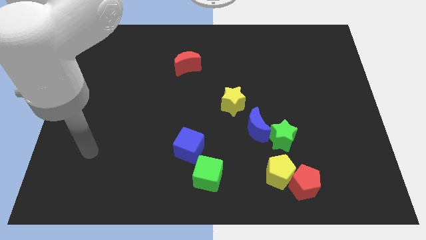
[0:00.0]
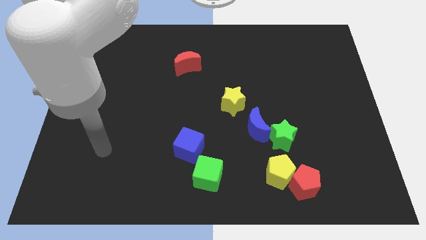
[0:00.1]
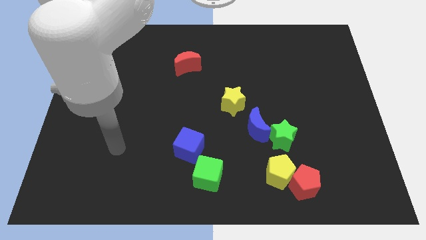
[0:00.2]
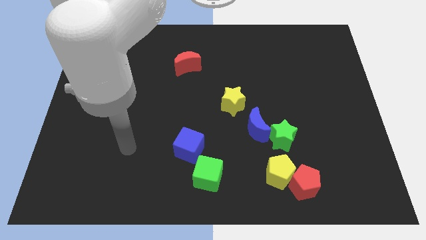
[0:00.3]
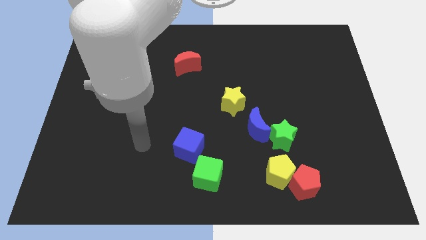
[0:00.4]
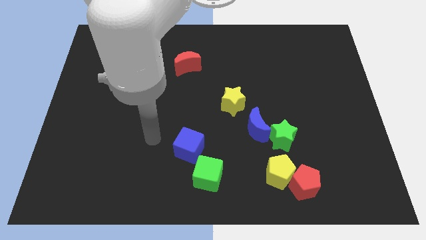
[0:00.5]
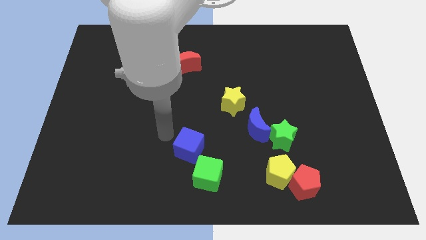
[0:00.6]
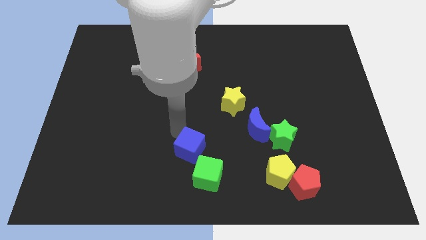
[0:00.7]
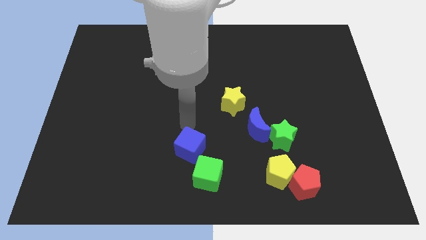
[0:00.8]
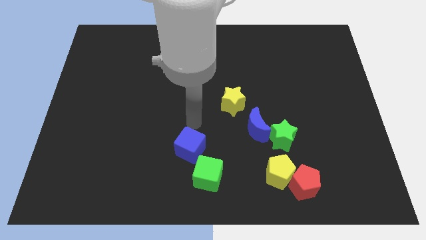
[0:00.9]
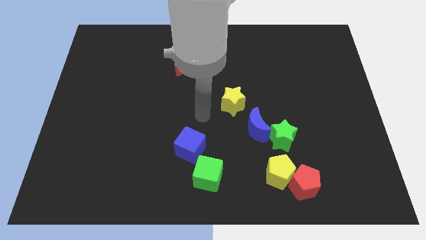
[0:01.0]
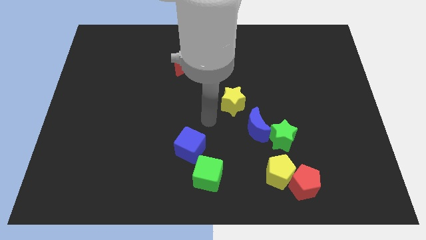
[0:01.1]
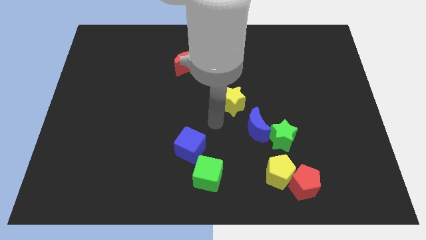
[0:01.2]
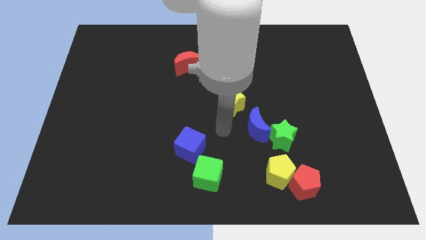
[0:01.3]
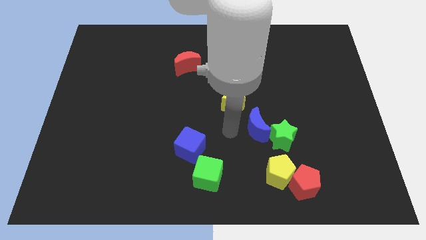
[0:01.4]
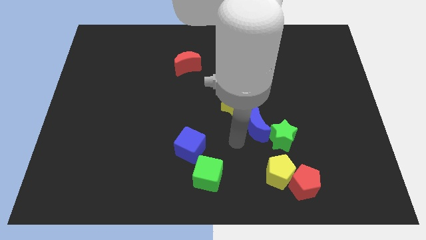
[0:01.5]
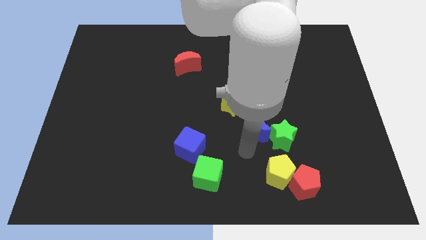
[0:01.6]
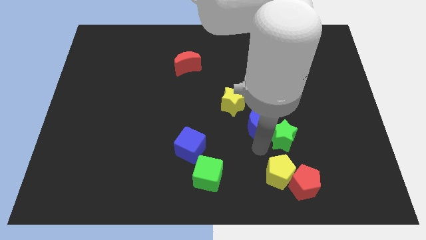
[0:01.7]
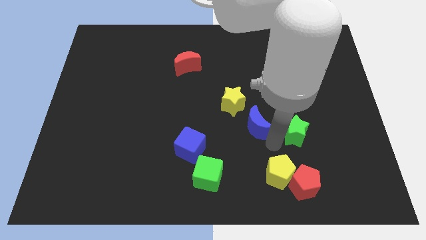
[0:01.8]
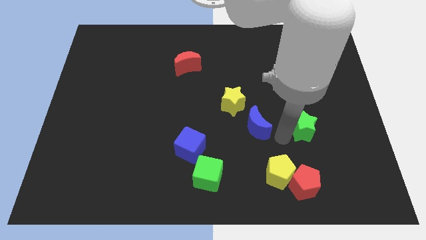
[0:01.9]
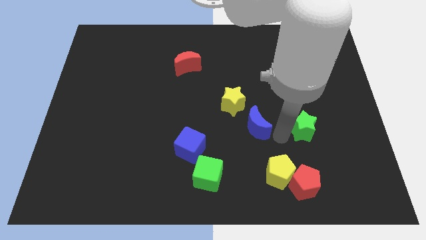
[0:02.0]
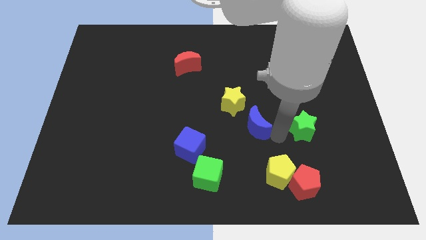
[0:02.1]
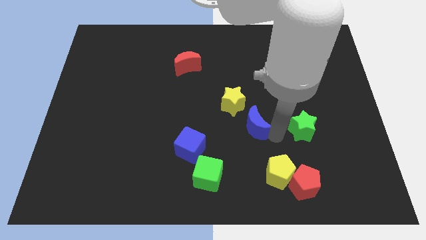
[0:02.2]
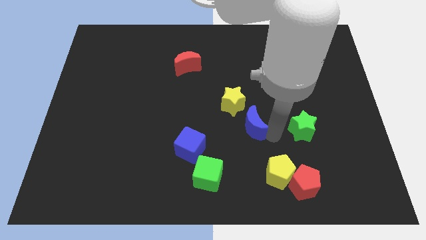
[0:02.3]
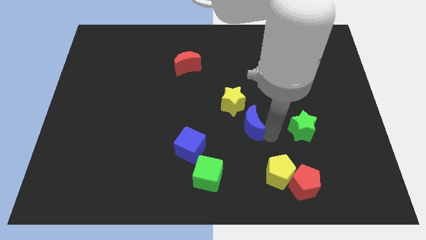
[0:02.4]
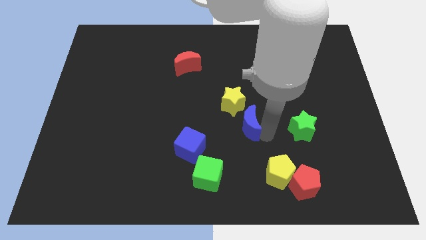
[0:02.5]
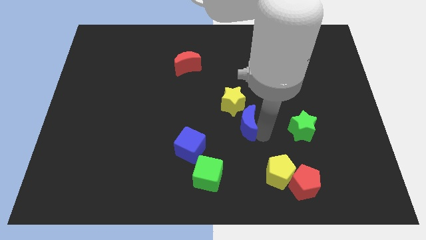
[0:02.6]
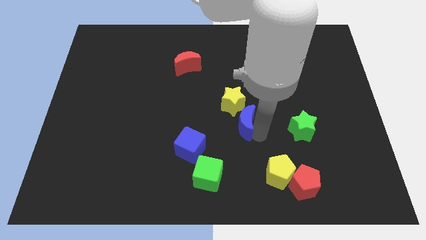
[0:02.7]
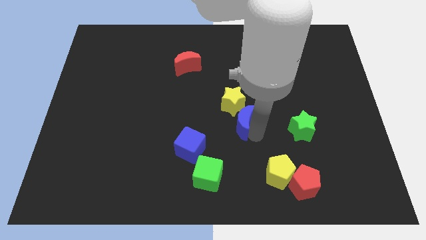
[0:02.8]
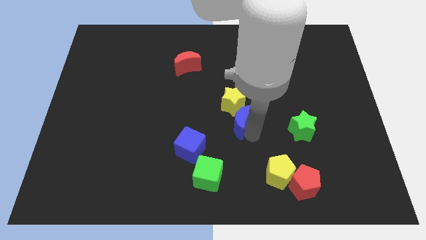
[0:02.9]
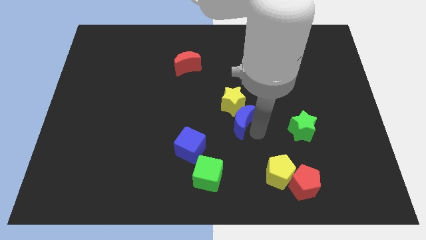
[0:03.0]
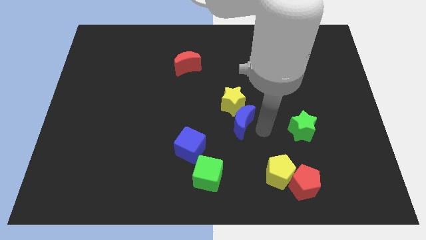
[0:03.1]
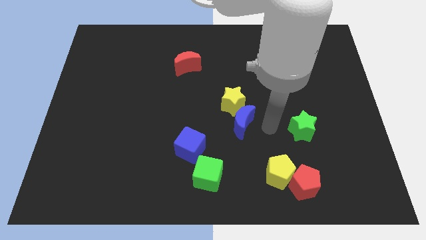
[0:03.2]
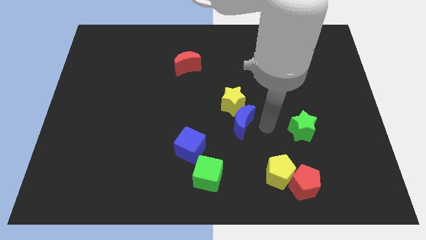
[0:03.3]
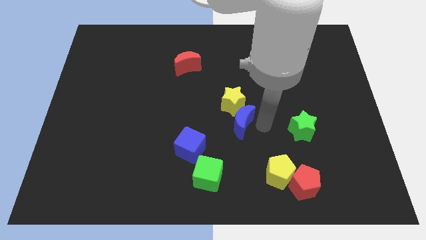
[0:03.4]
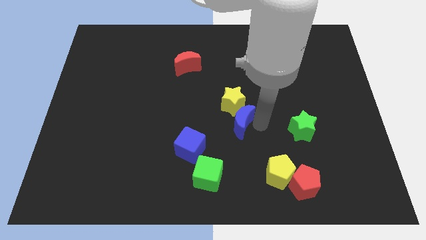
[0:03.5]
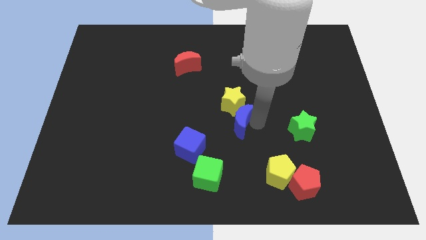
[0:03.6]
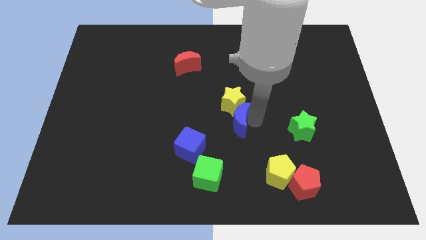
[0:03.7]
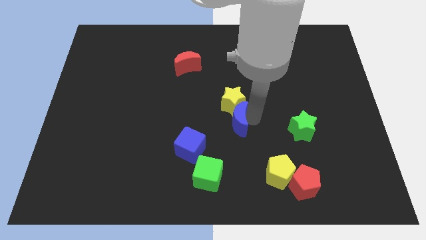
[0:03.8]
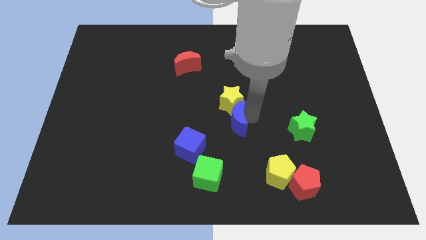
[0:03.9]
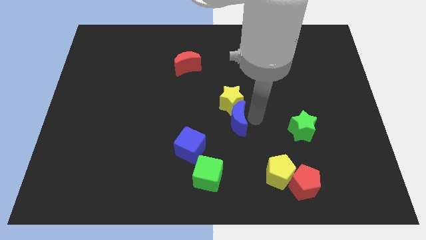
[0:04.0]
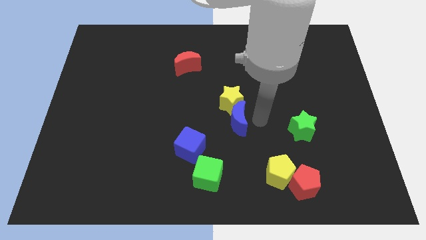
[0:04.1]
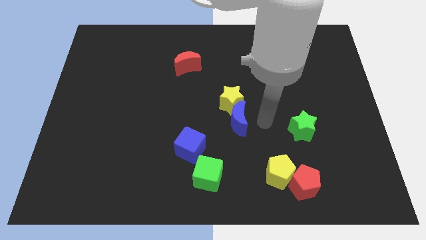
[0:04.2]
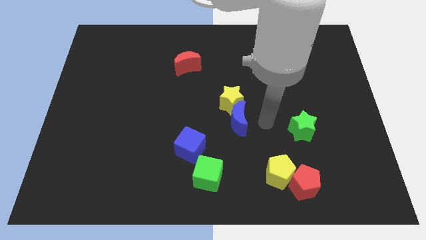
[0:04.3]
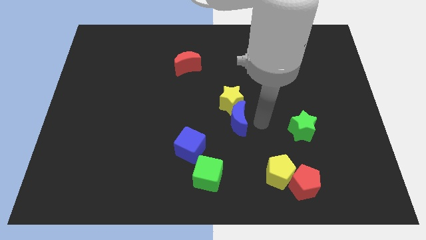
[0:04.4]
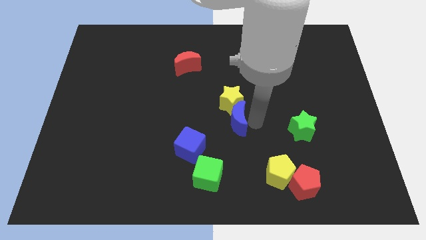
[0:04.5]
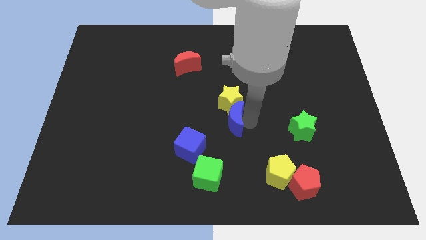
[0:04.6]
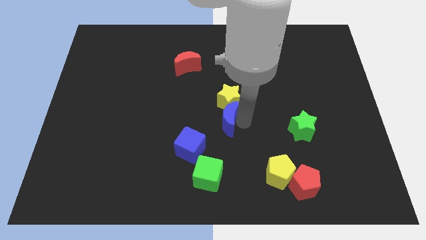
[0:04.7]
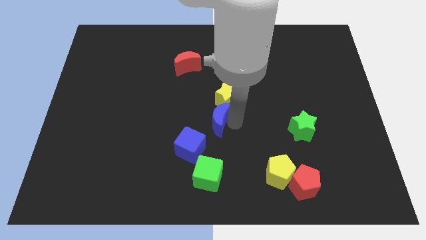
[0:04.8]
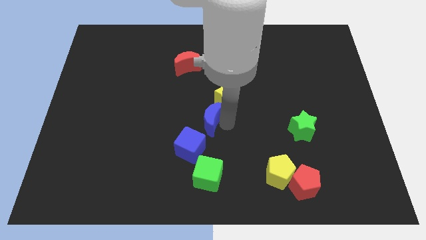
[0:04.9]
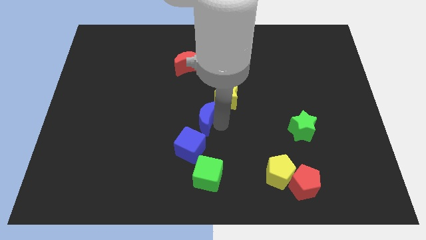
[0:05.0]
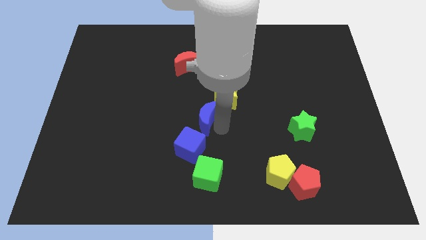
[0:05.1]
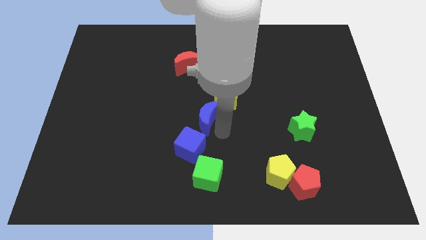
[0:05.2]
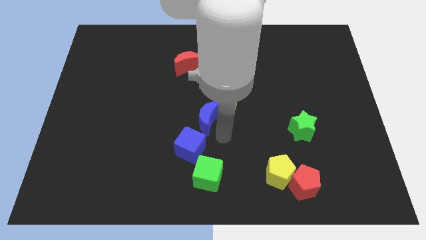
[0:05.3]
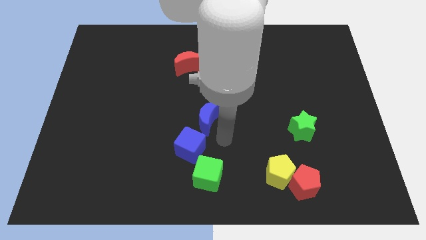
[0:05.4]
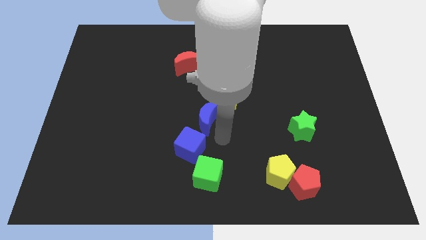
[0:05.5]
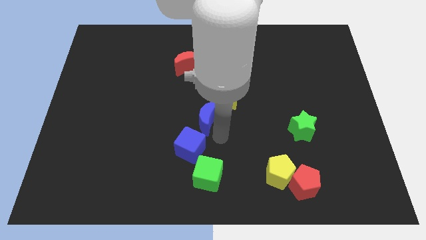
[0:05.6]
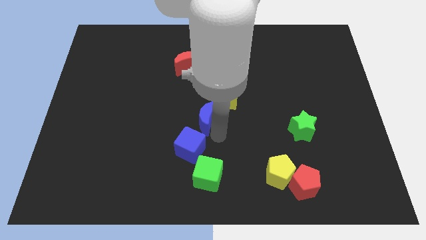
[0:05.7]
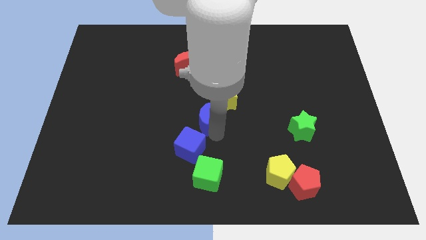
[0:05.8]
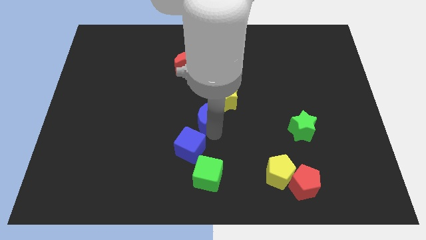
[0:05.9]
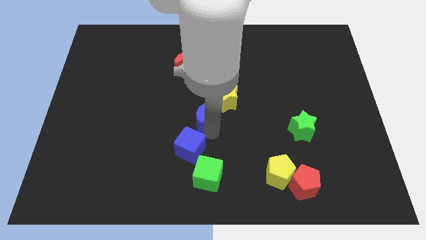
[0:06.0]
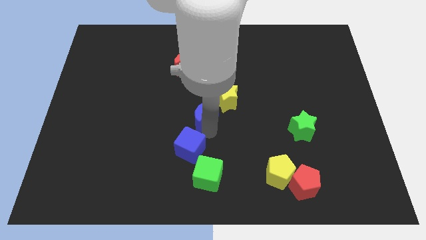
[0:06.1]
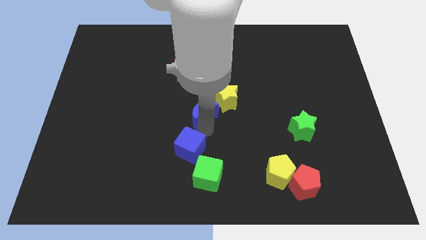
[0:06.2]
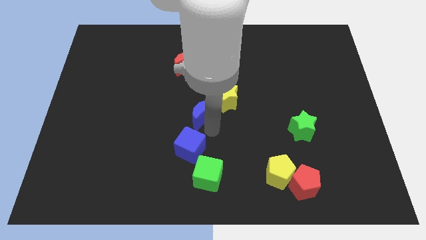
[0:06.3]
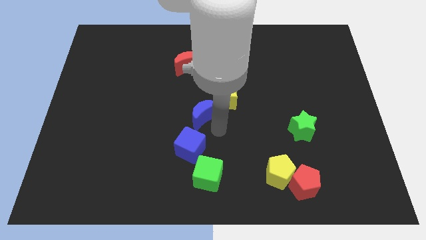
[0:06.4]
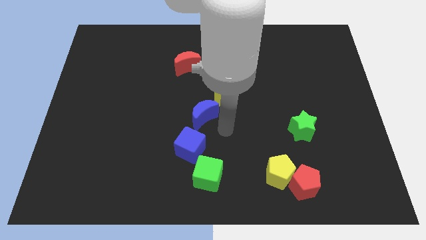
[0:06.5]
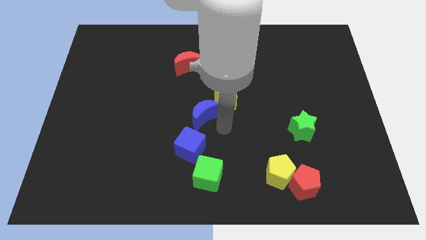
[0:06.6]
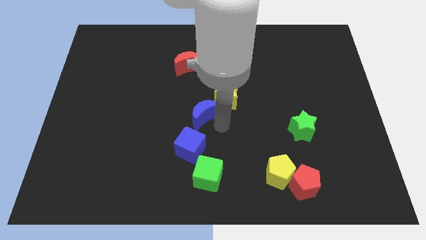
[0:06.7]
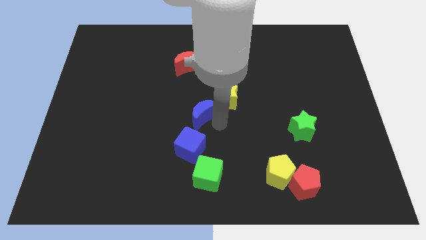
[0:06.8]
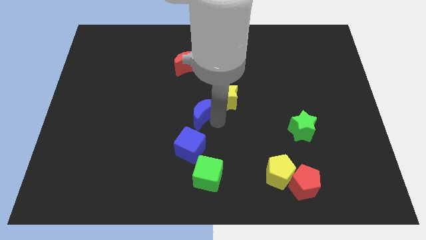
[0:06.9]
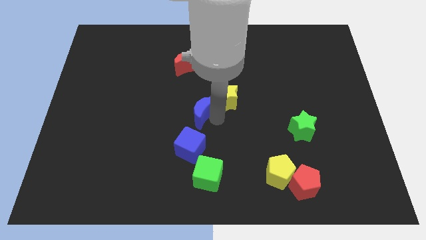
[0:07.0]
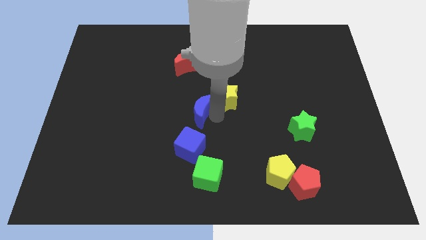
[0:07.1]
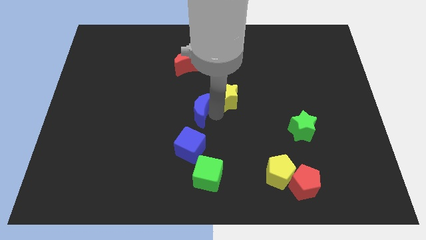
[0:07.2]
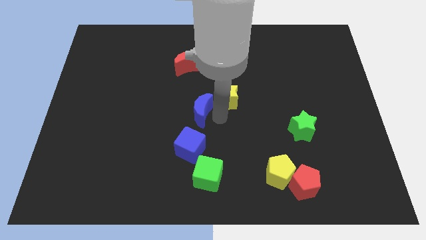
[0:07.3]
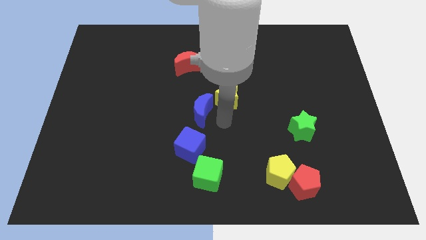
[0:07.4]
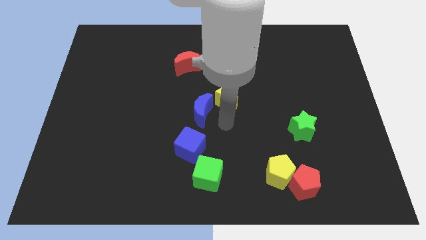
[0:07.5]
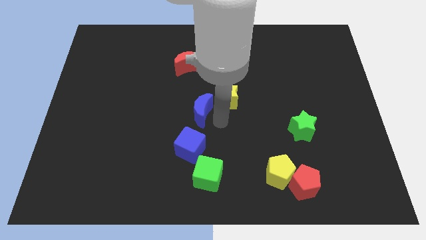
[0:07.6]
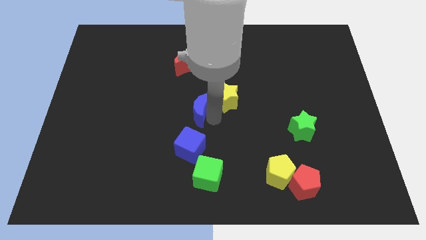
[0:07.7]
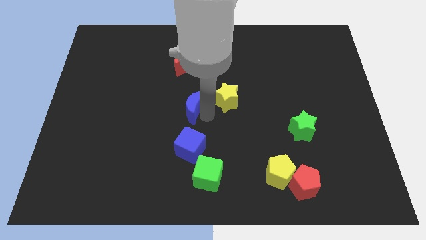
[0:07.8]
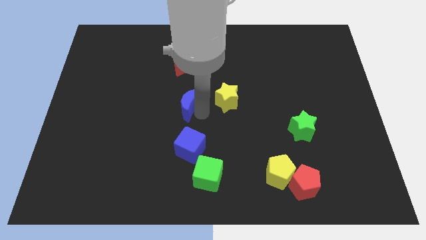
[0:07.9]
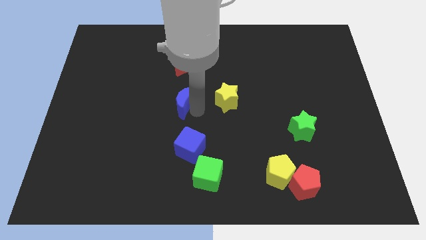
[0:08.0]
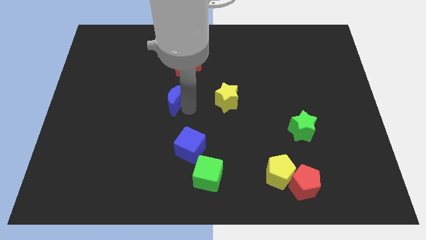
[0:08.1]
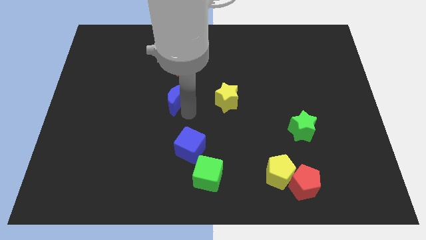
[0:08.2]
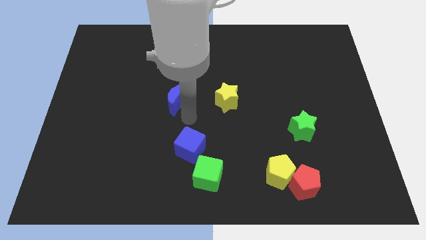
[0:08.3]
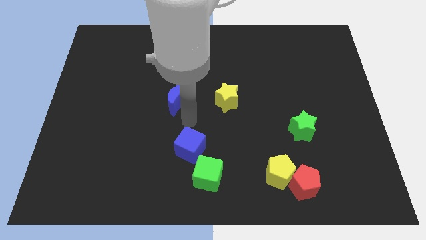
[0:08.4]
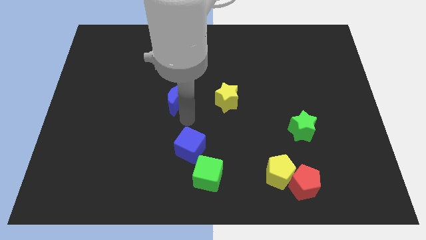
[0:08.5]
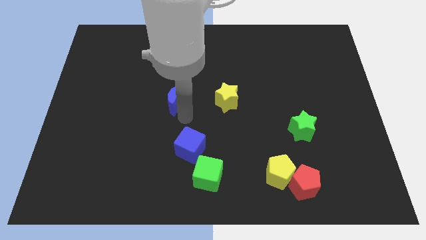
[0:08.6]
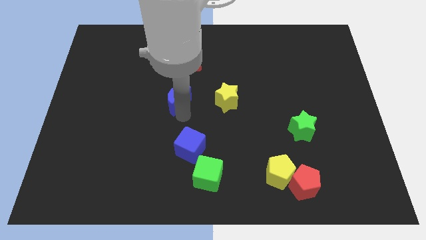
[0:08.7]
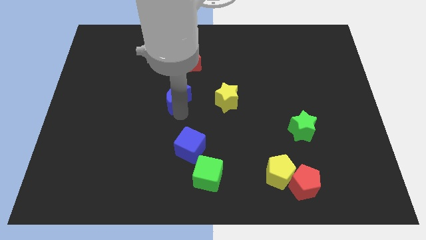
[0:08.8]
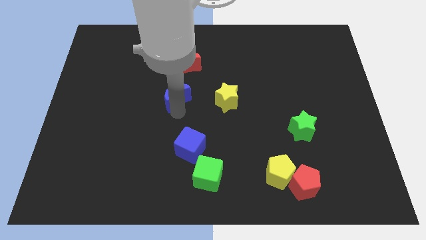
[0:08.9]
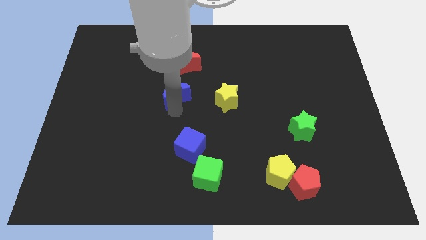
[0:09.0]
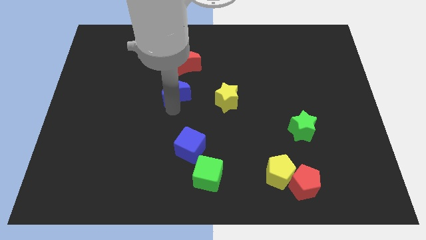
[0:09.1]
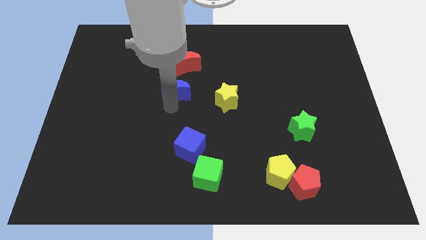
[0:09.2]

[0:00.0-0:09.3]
push the blue moon diagonally down and to the left of the red moon
